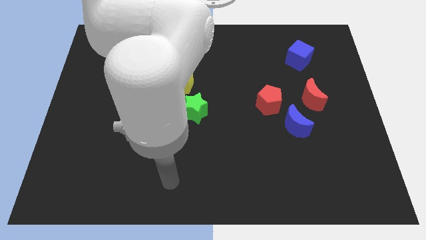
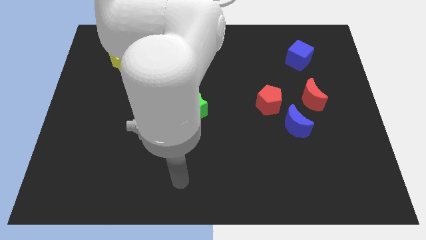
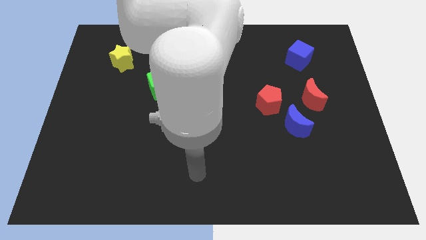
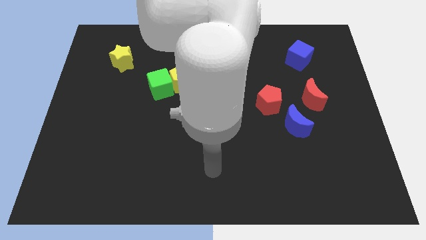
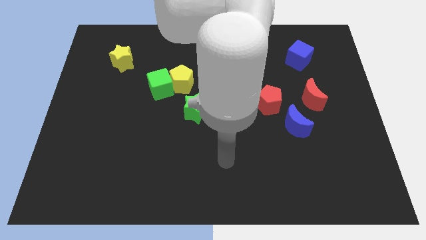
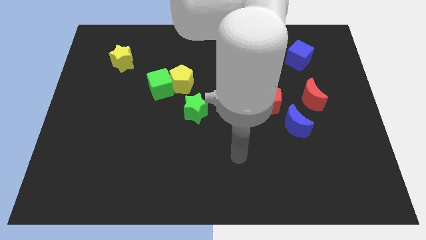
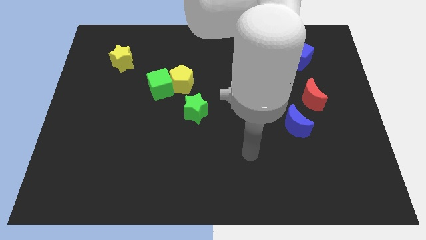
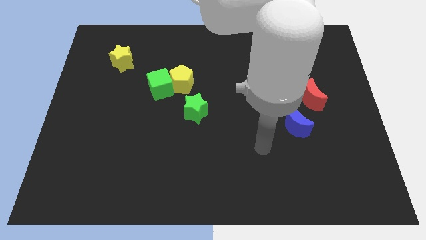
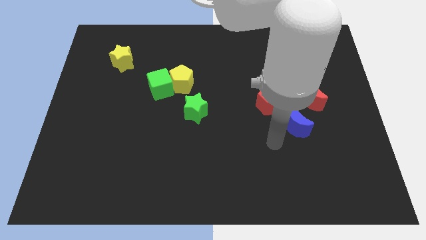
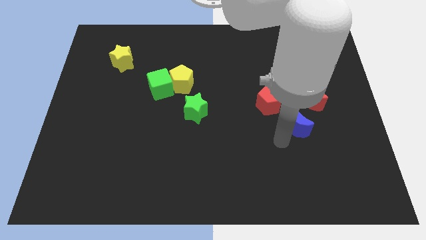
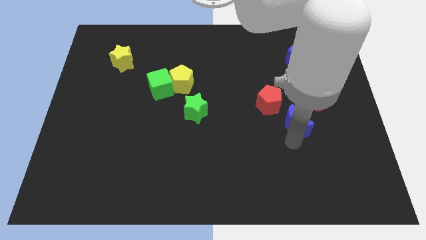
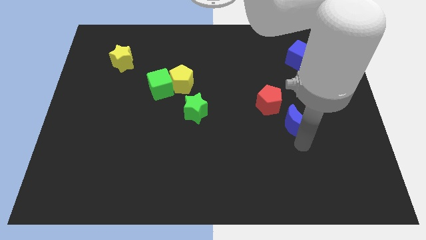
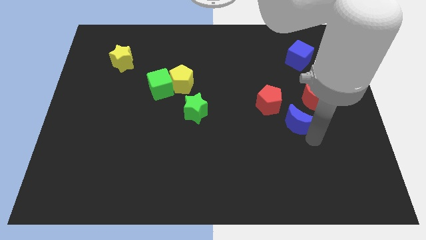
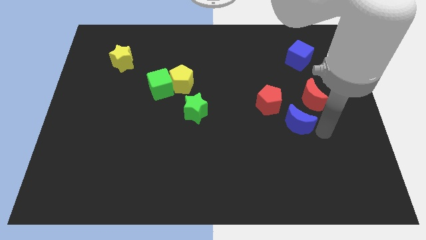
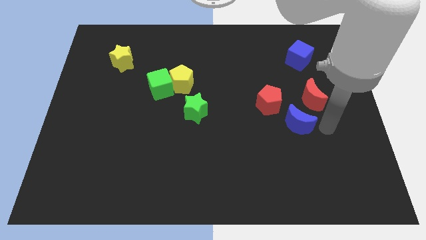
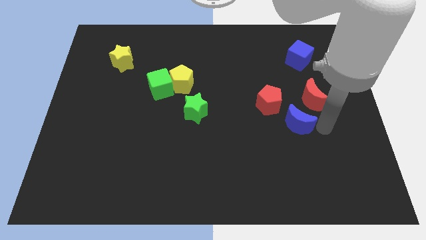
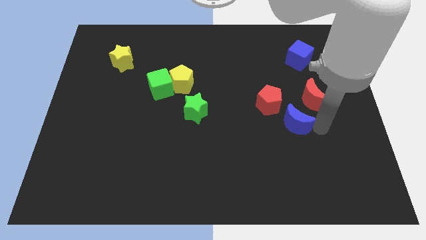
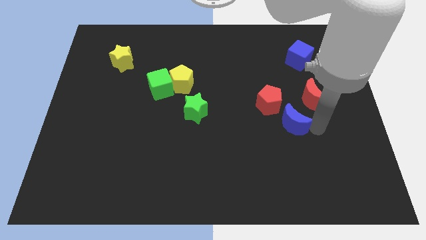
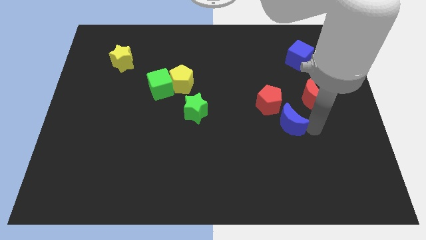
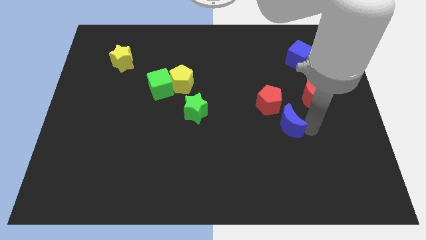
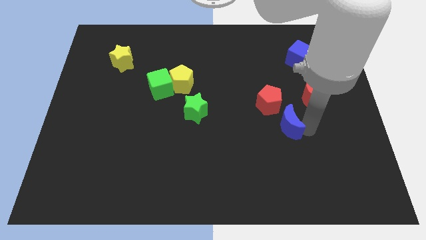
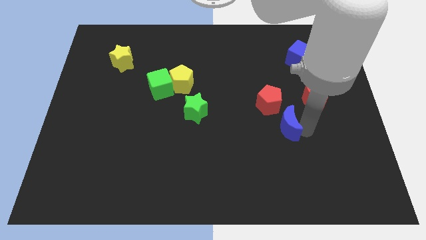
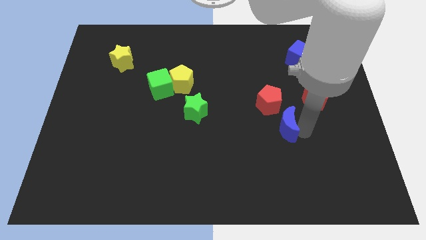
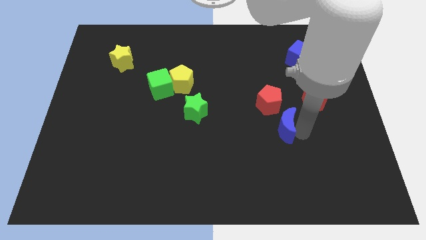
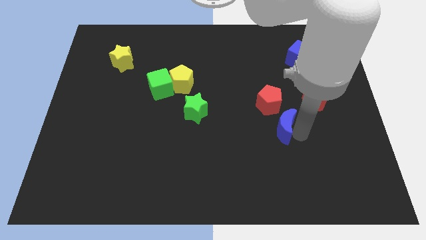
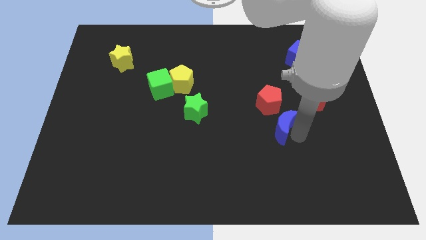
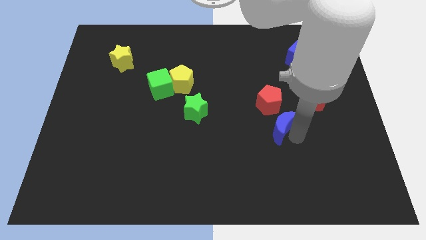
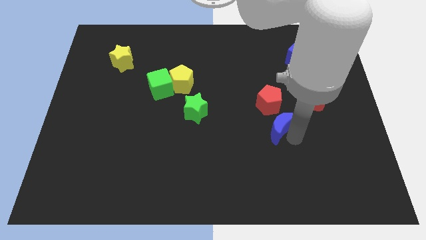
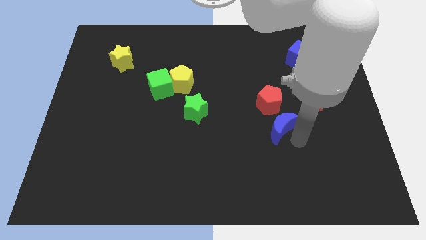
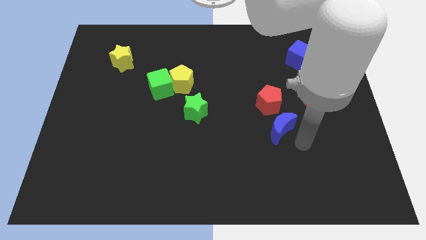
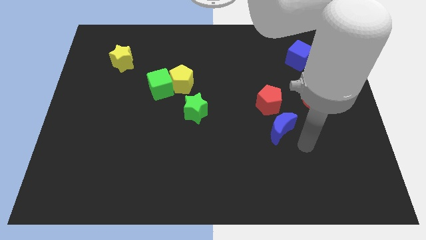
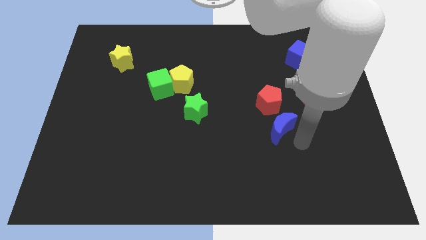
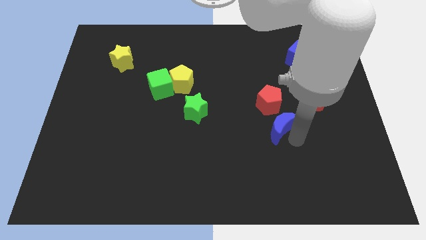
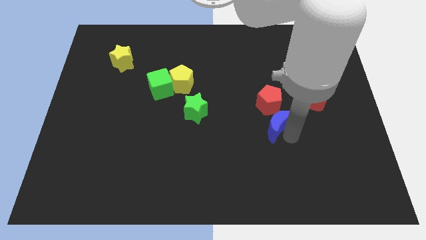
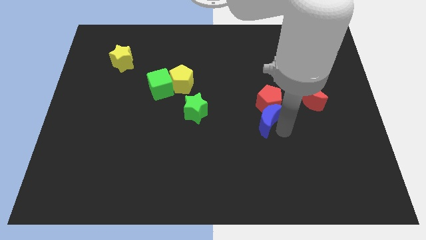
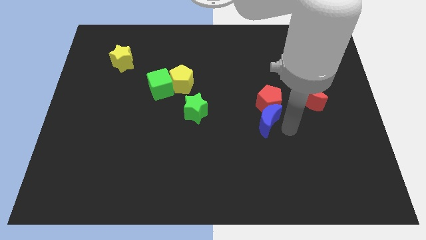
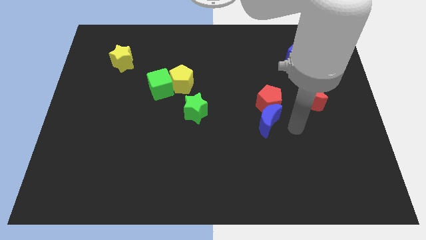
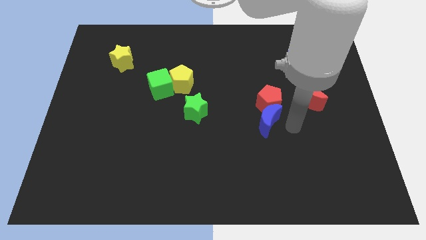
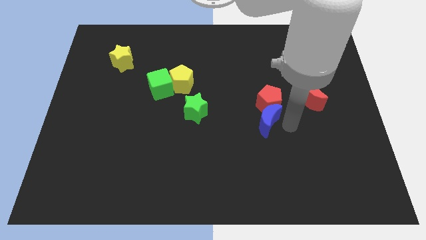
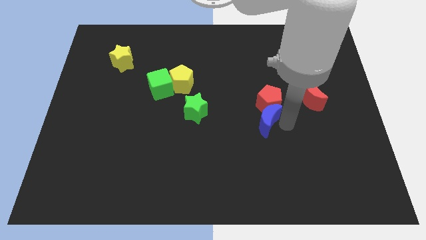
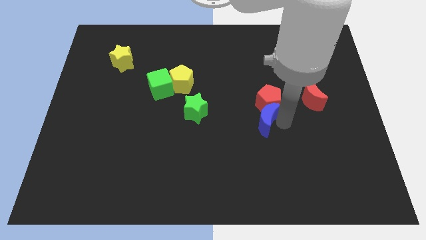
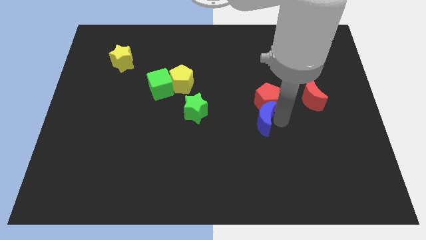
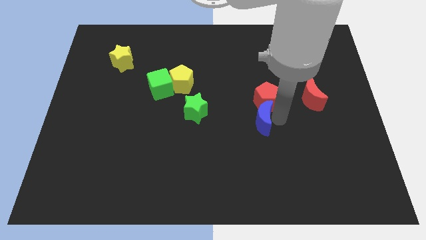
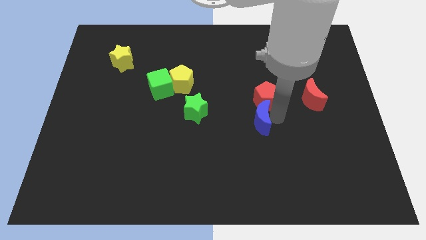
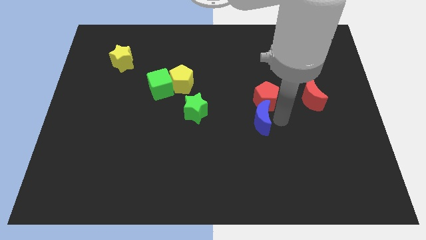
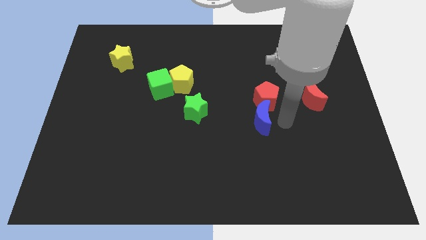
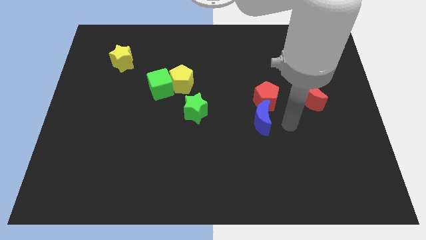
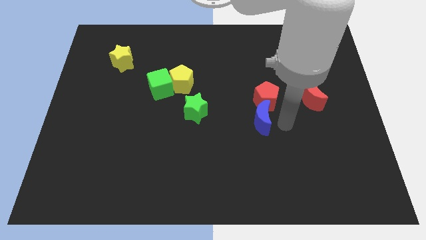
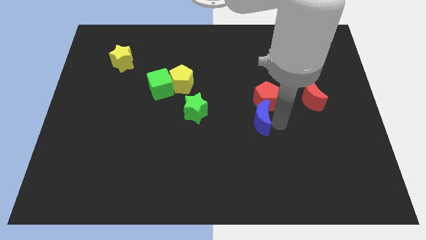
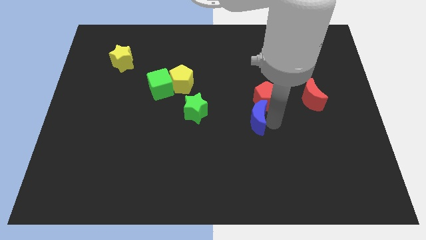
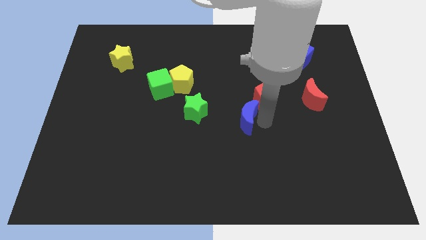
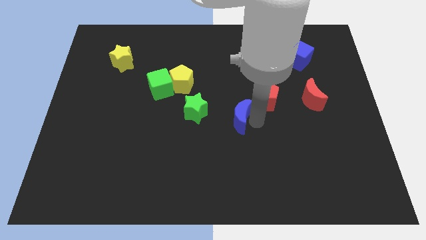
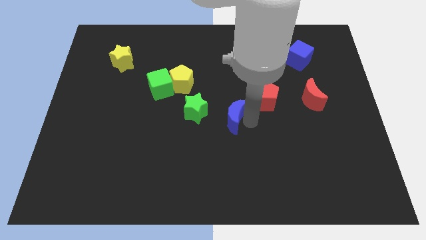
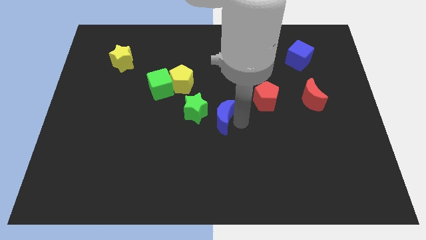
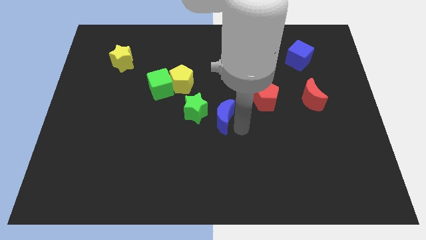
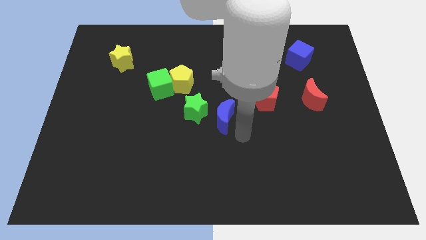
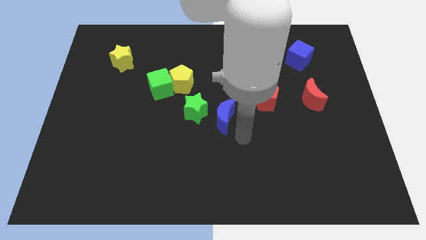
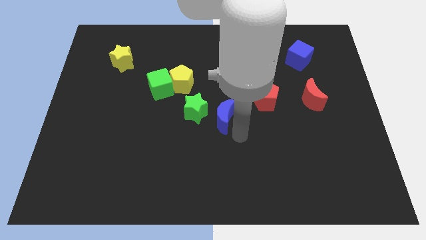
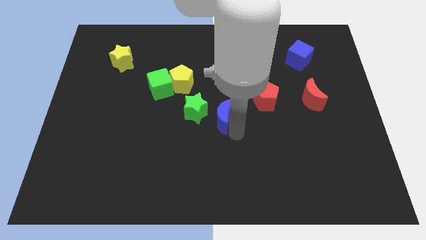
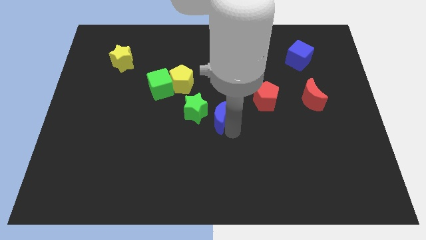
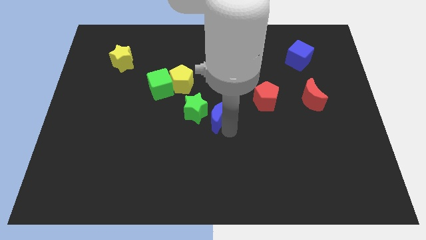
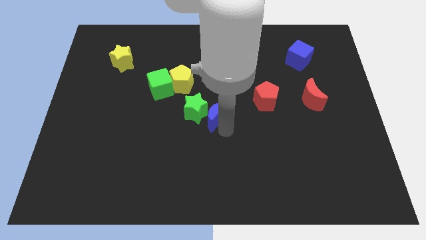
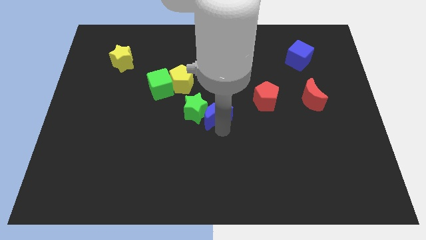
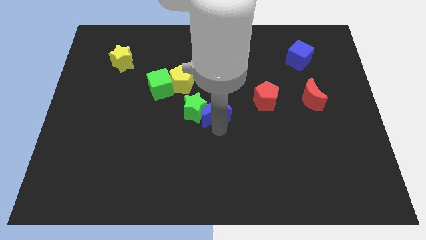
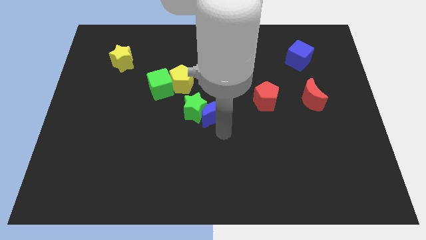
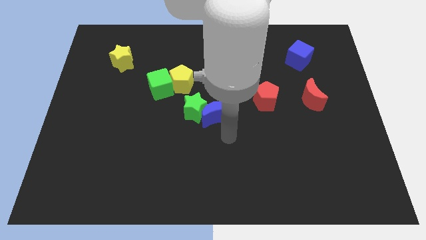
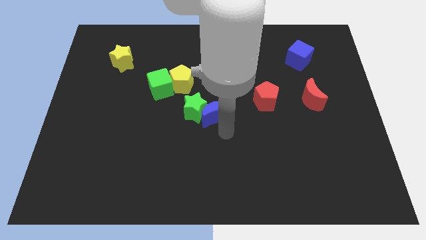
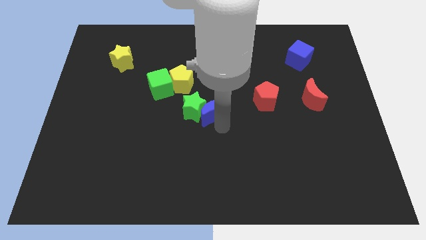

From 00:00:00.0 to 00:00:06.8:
push the blue moon to the bottom right of the yellow pentagon

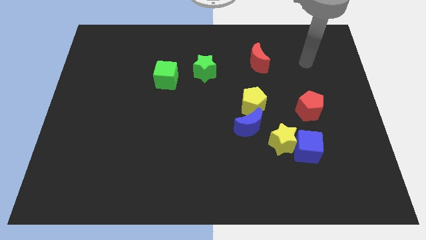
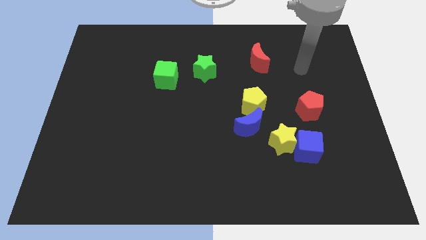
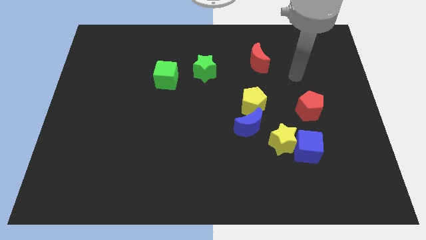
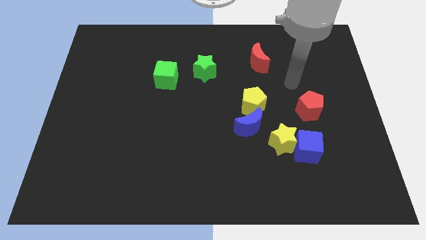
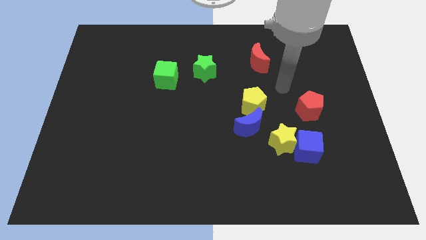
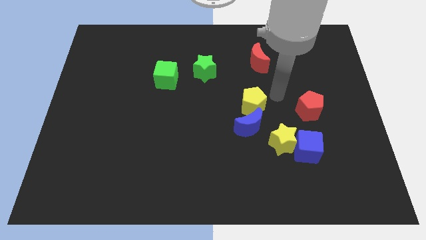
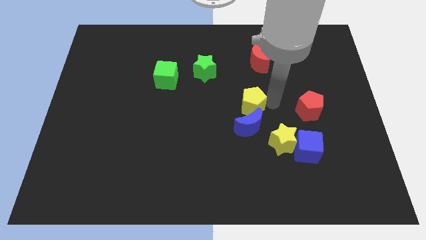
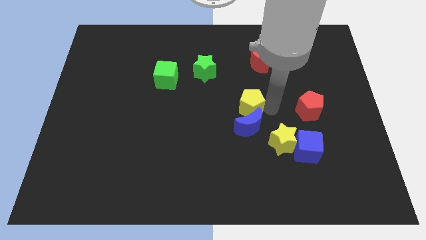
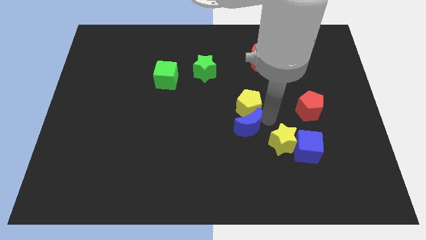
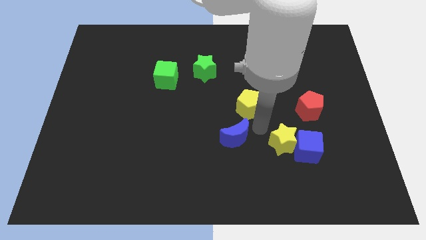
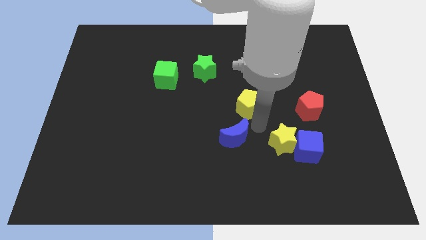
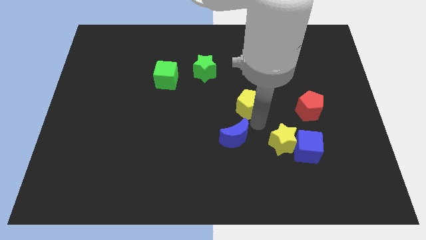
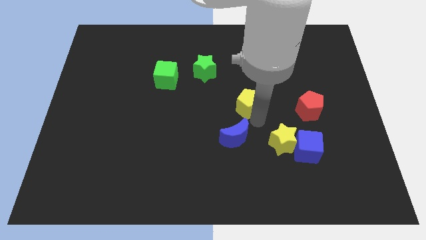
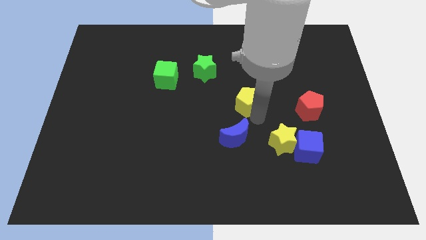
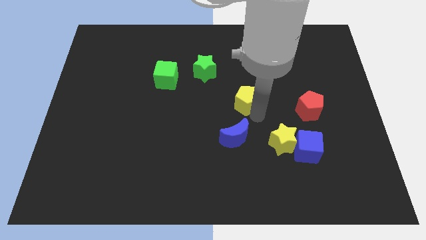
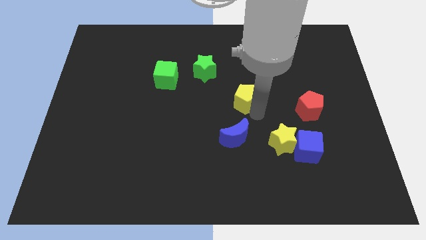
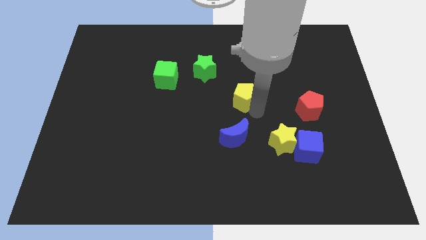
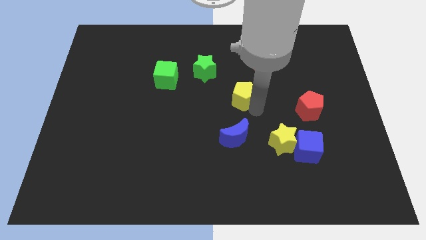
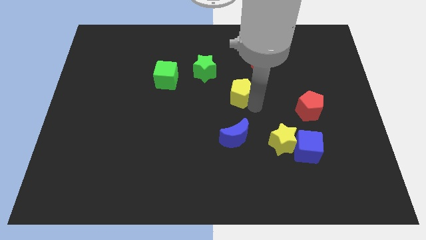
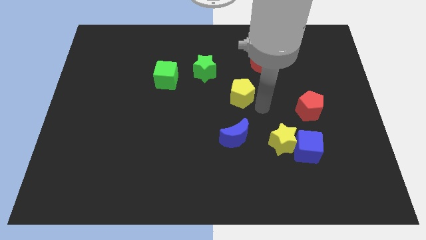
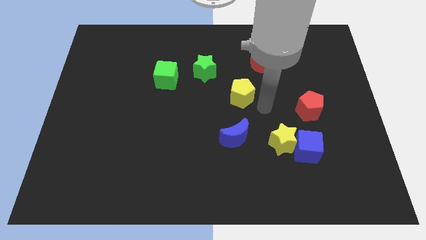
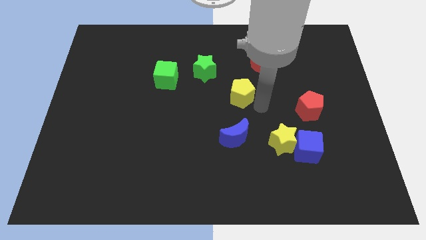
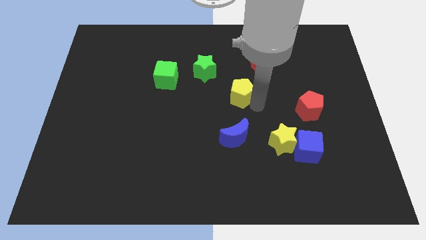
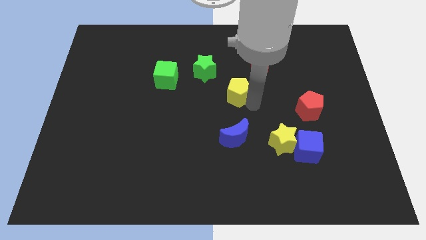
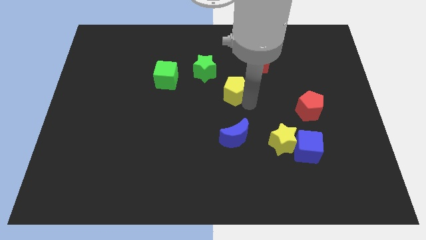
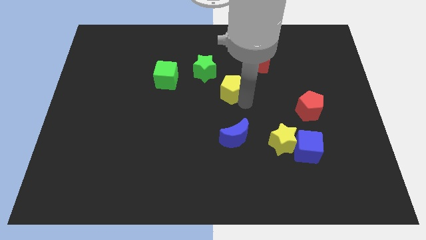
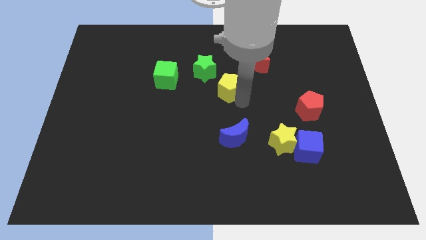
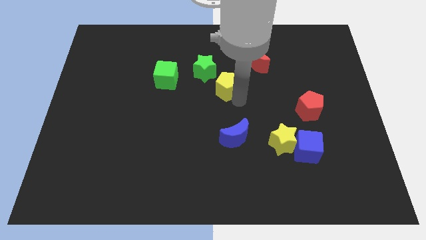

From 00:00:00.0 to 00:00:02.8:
move the yellow pentagon right of the green cube
